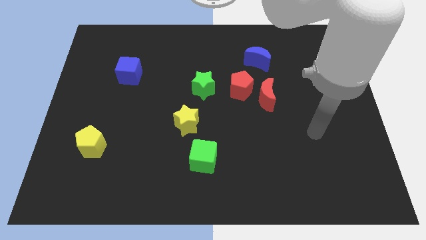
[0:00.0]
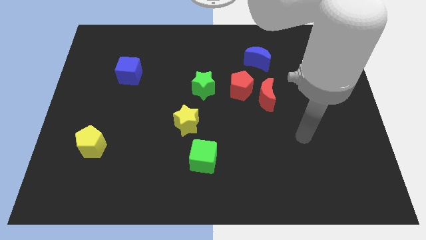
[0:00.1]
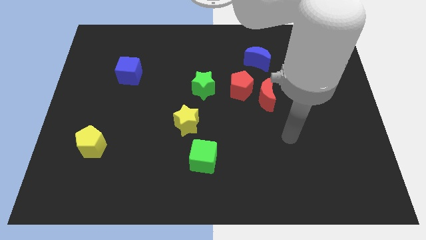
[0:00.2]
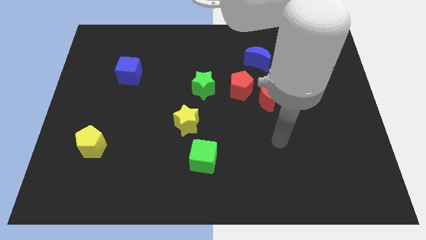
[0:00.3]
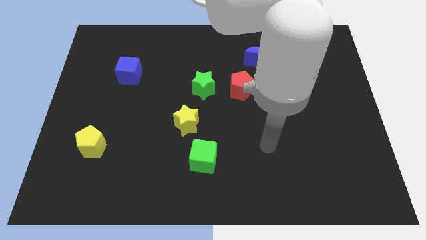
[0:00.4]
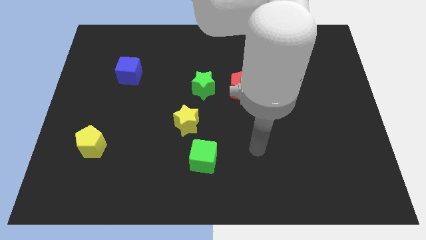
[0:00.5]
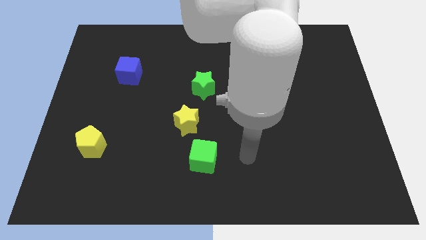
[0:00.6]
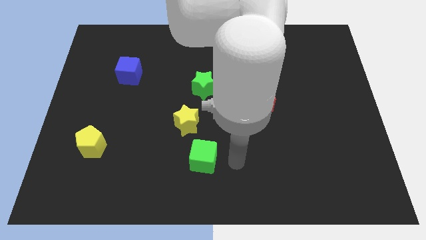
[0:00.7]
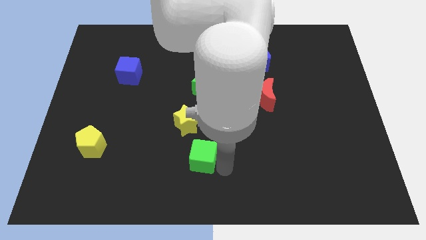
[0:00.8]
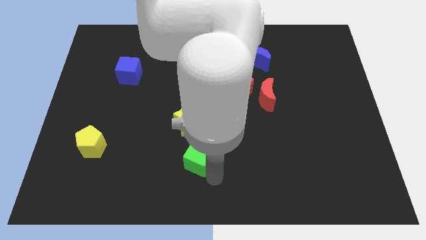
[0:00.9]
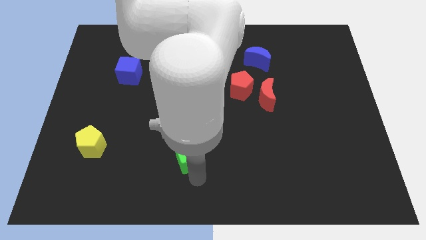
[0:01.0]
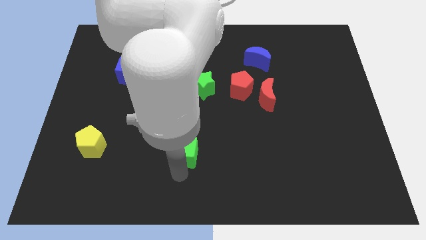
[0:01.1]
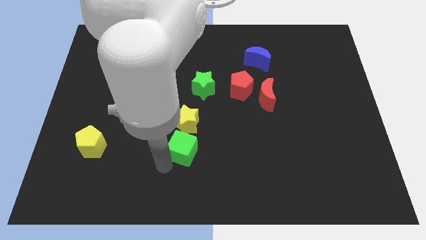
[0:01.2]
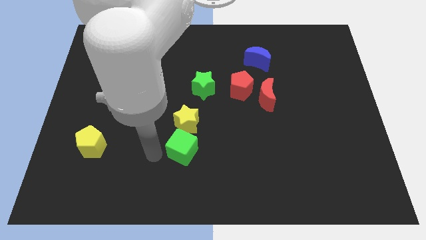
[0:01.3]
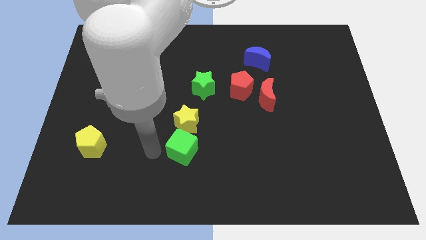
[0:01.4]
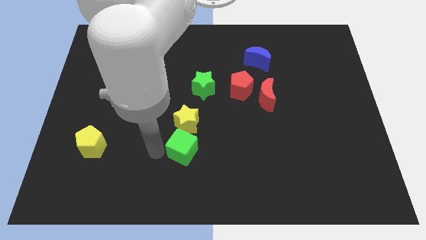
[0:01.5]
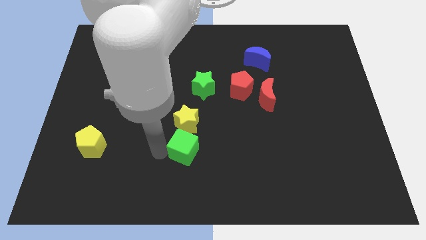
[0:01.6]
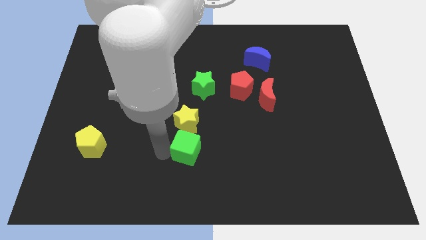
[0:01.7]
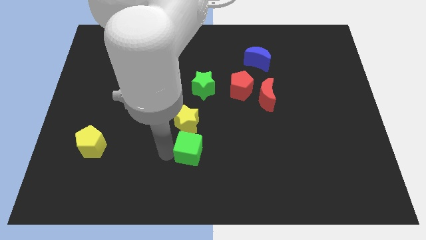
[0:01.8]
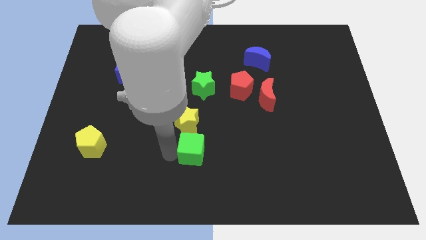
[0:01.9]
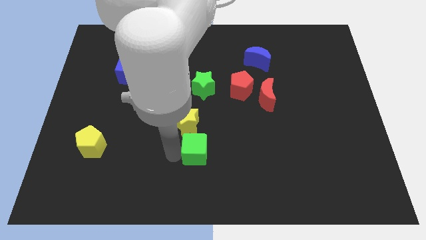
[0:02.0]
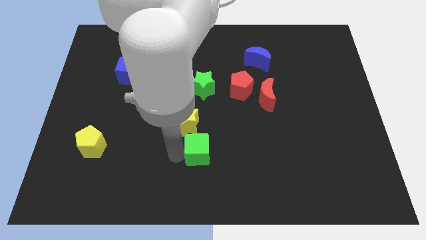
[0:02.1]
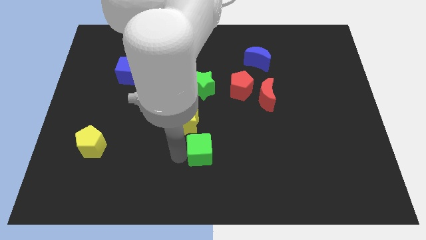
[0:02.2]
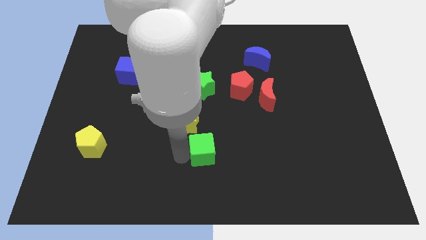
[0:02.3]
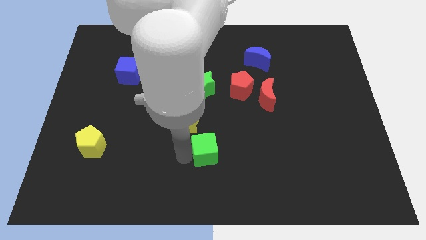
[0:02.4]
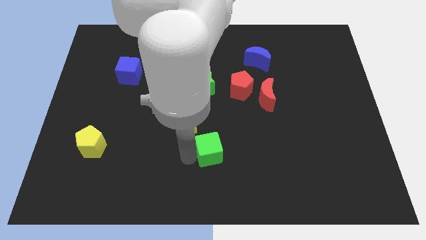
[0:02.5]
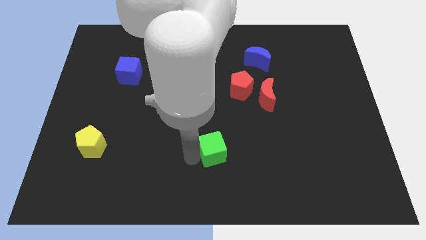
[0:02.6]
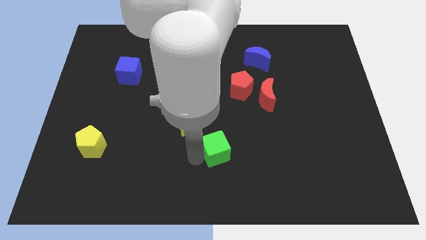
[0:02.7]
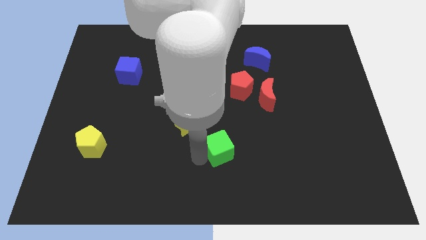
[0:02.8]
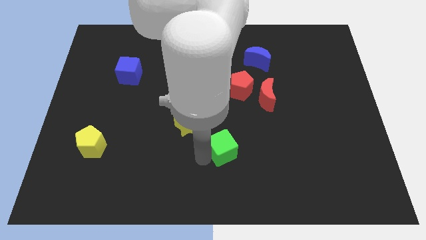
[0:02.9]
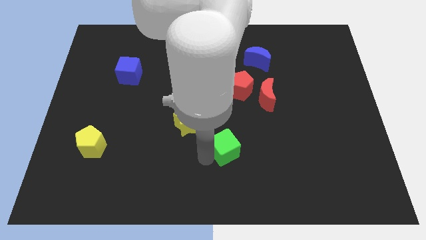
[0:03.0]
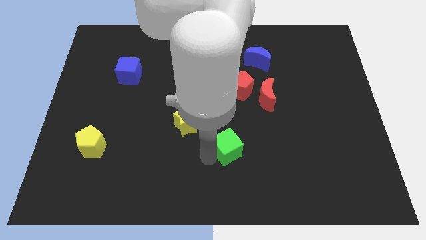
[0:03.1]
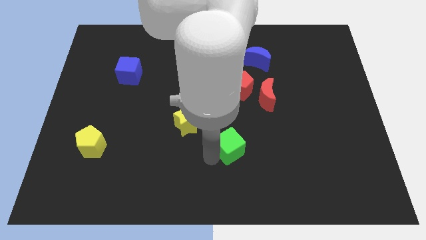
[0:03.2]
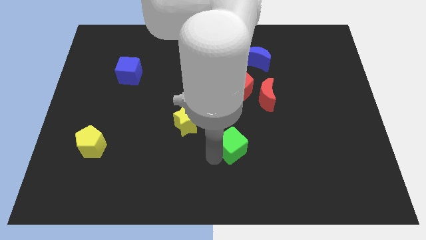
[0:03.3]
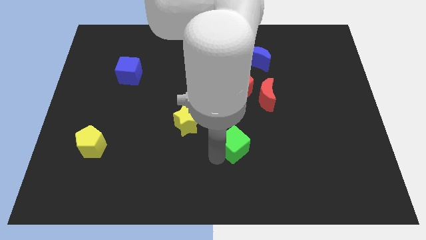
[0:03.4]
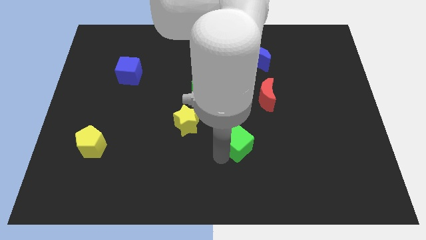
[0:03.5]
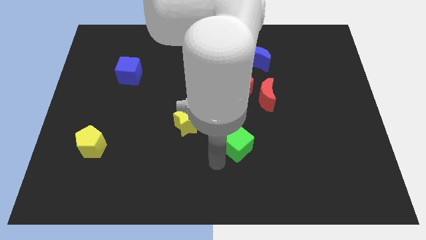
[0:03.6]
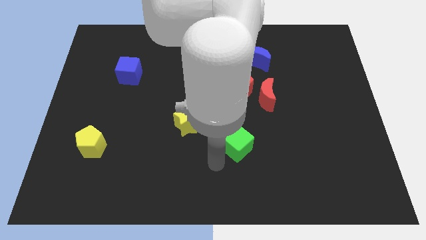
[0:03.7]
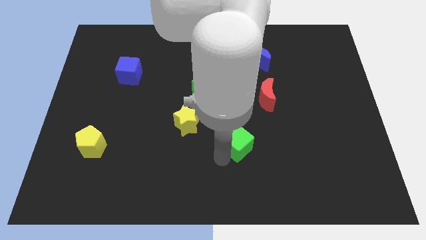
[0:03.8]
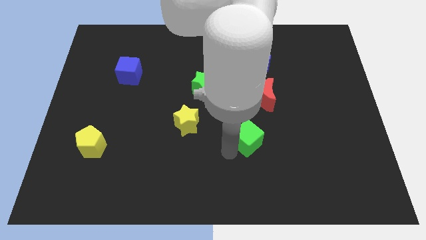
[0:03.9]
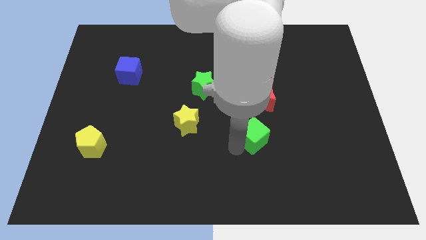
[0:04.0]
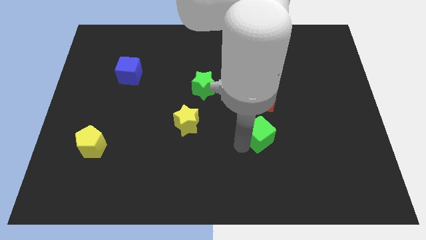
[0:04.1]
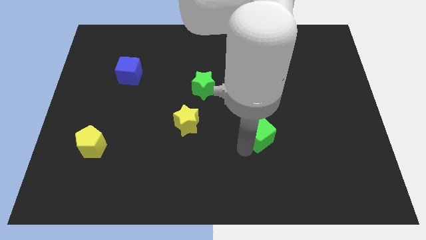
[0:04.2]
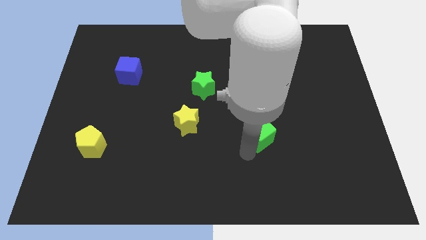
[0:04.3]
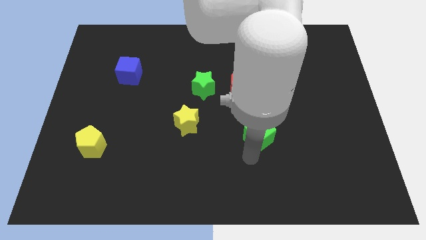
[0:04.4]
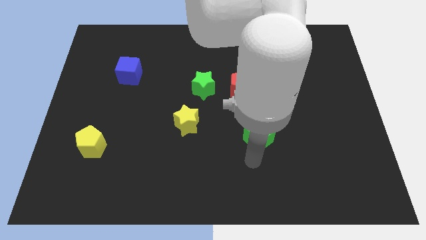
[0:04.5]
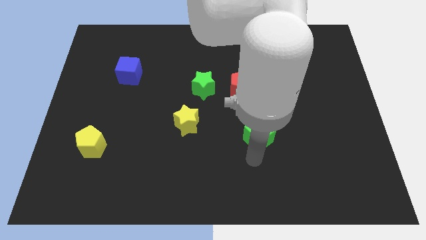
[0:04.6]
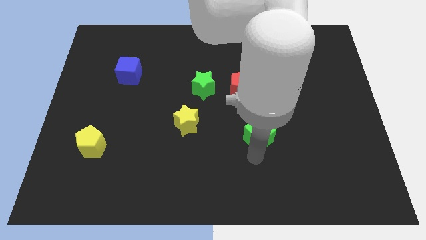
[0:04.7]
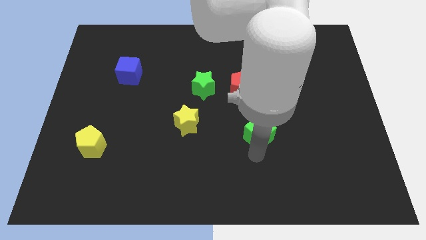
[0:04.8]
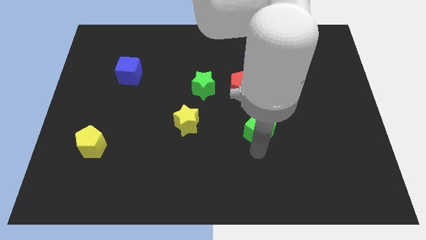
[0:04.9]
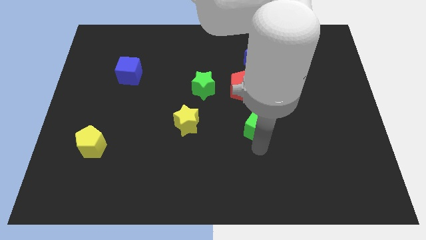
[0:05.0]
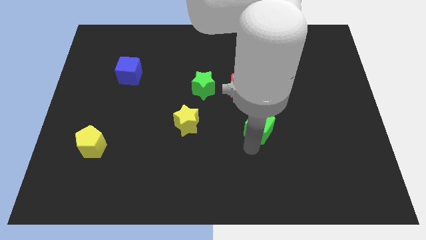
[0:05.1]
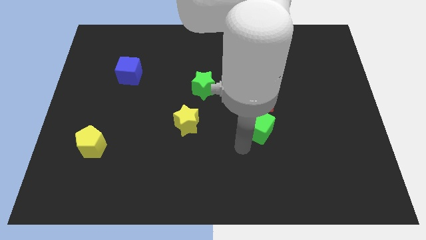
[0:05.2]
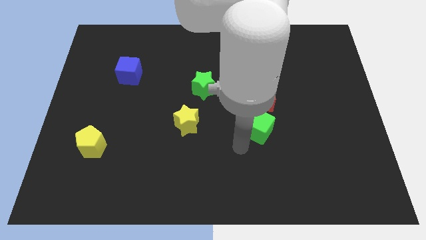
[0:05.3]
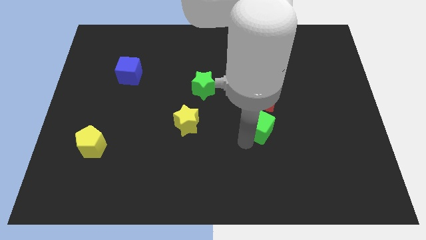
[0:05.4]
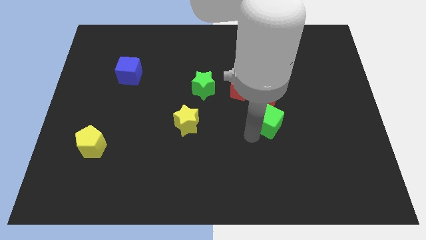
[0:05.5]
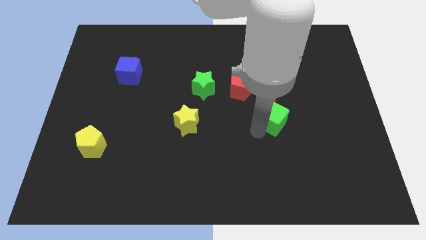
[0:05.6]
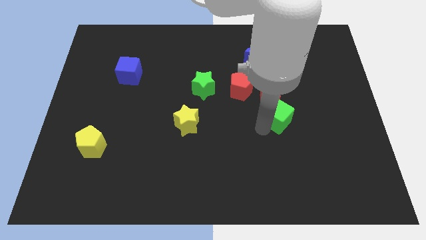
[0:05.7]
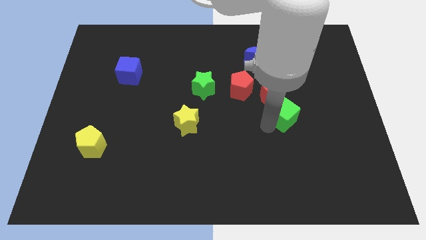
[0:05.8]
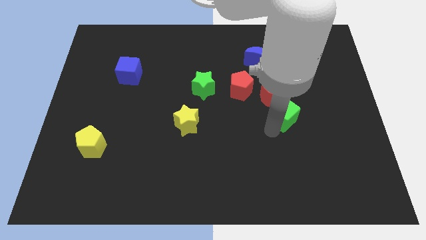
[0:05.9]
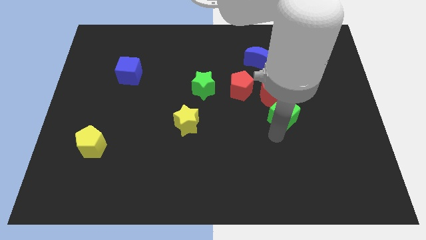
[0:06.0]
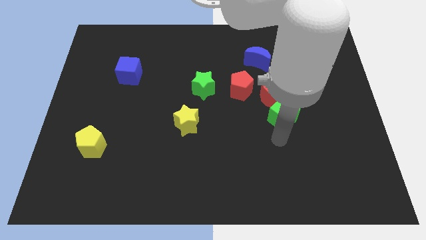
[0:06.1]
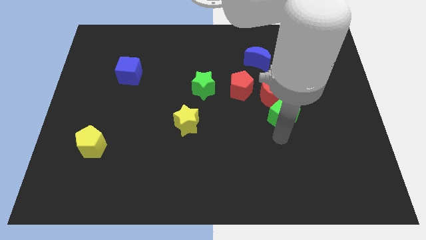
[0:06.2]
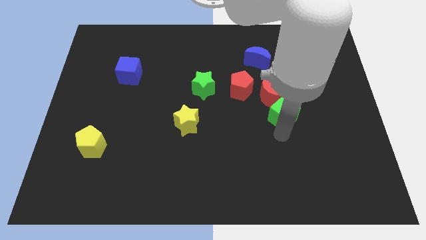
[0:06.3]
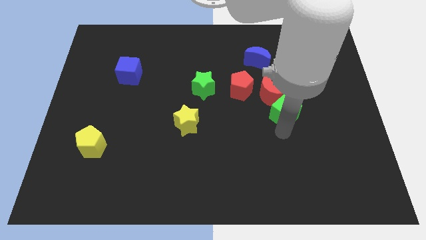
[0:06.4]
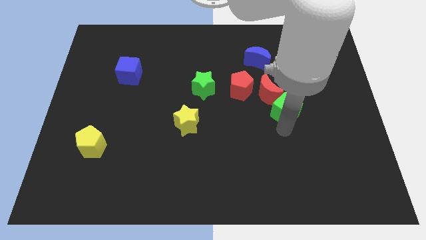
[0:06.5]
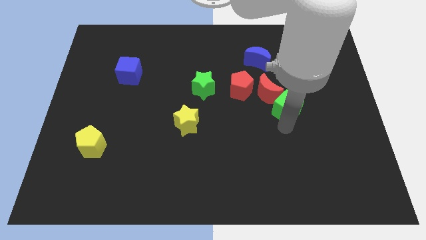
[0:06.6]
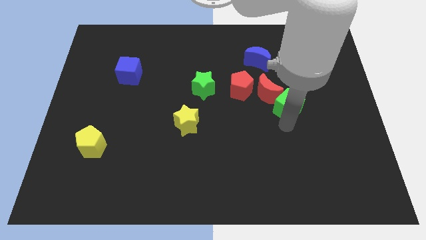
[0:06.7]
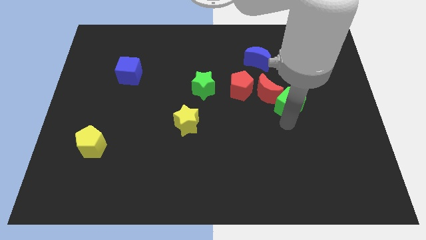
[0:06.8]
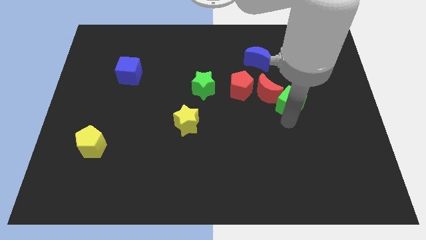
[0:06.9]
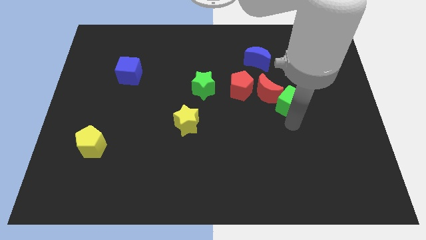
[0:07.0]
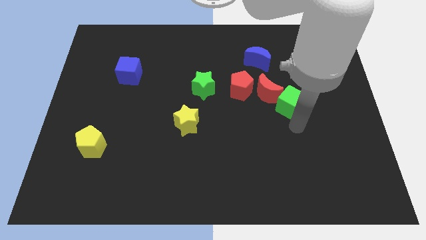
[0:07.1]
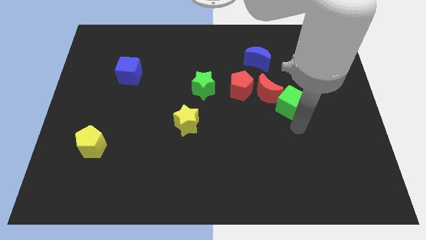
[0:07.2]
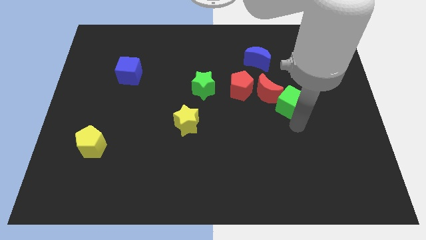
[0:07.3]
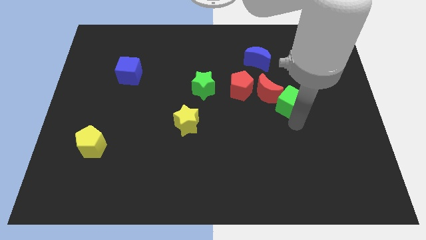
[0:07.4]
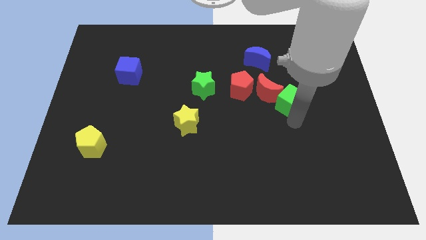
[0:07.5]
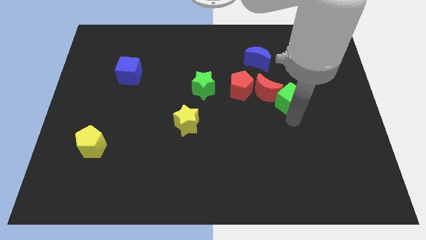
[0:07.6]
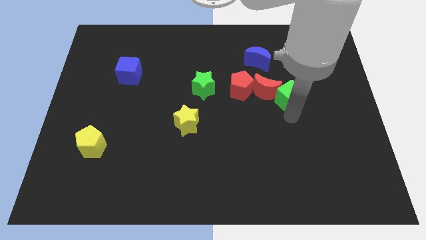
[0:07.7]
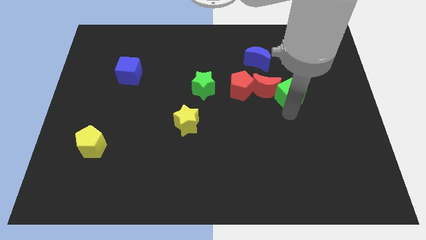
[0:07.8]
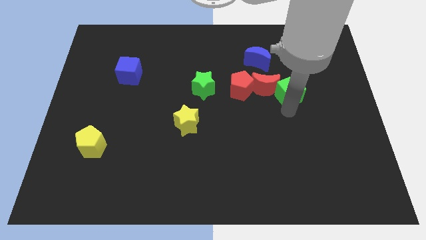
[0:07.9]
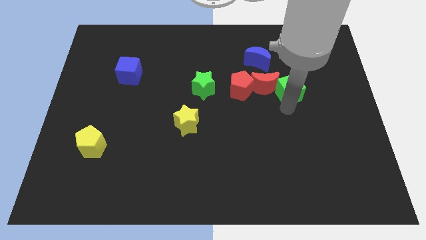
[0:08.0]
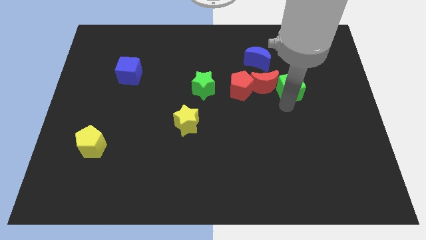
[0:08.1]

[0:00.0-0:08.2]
put the green cube to the bottom right of the blue moon
